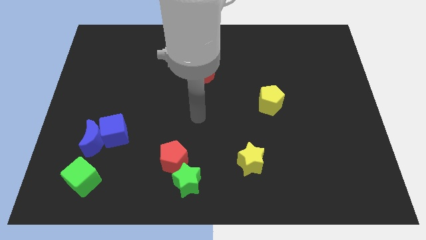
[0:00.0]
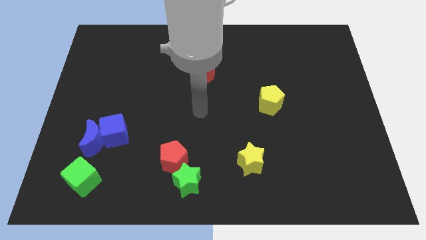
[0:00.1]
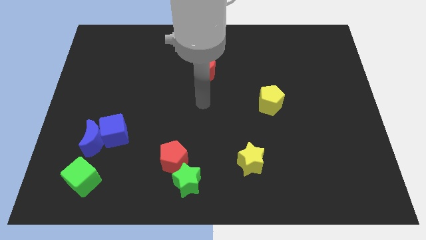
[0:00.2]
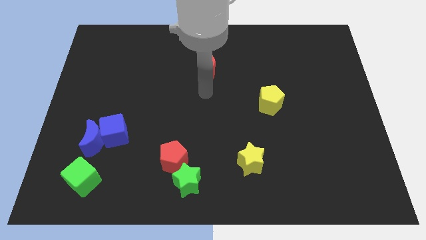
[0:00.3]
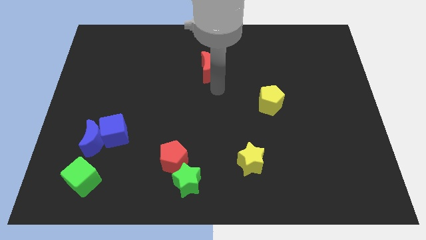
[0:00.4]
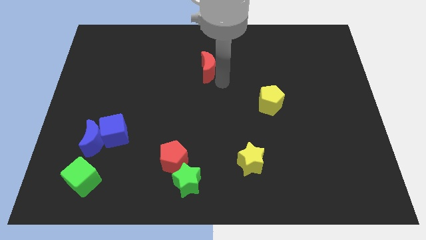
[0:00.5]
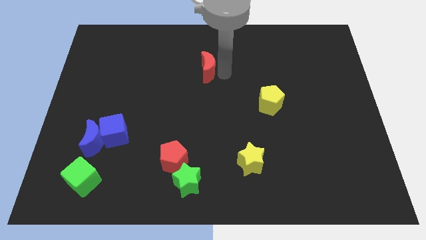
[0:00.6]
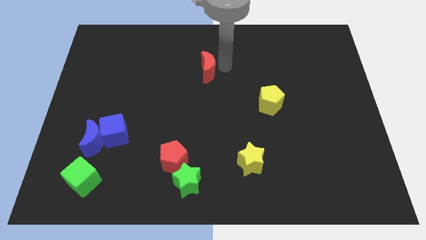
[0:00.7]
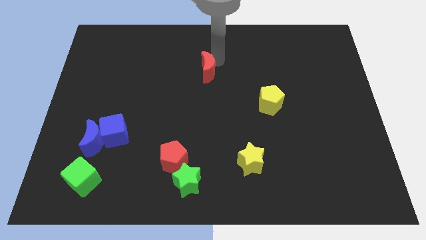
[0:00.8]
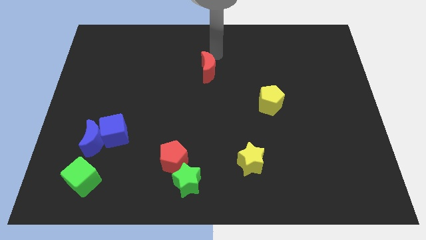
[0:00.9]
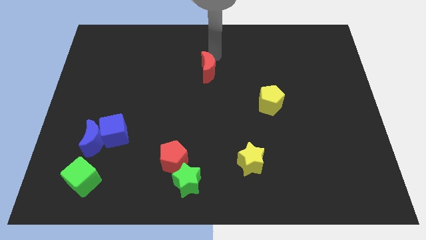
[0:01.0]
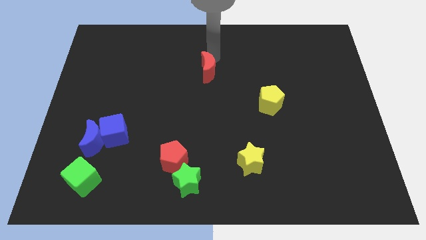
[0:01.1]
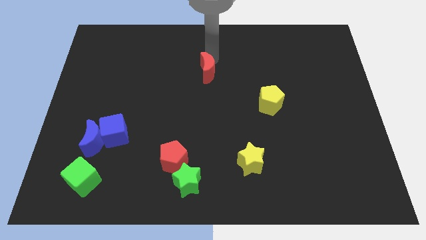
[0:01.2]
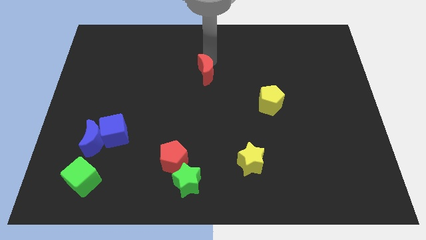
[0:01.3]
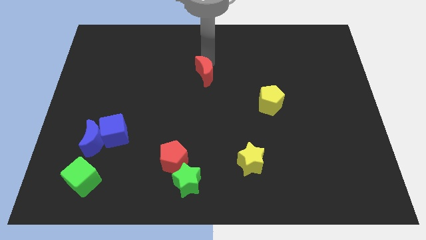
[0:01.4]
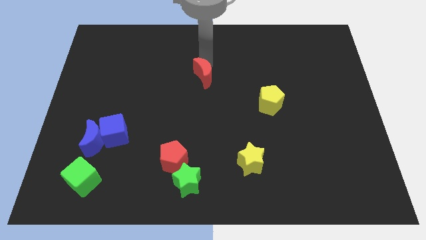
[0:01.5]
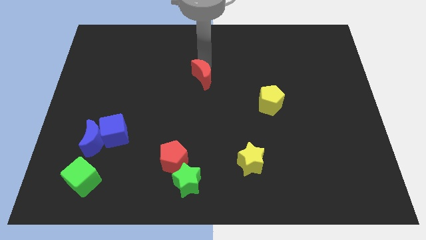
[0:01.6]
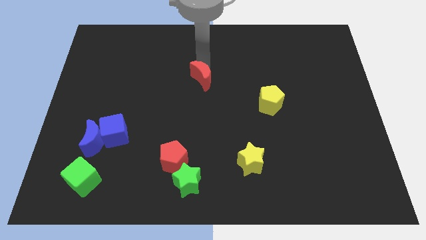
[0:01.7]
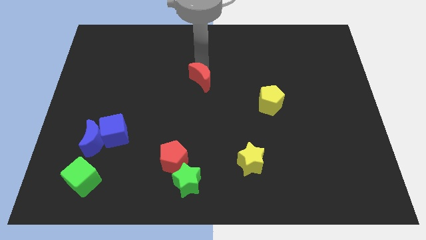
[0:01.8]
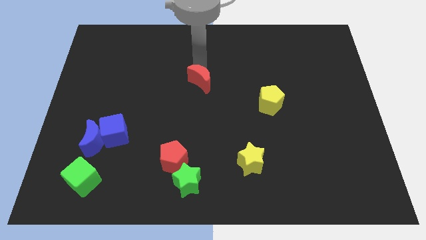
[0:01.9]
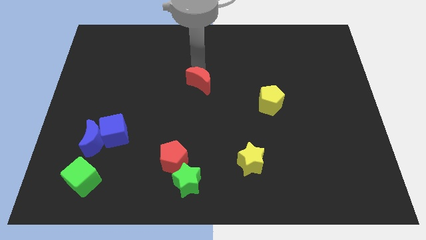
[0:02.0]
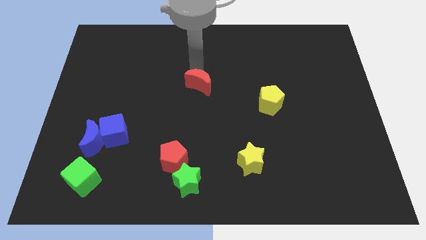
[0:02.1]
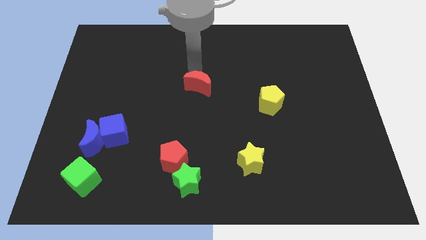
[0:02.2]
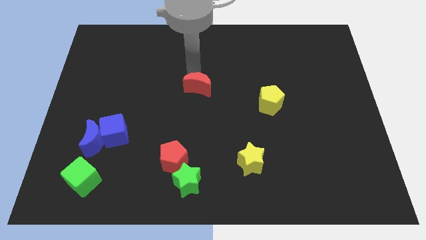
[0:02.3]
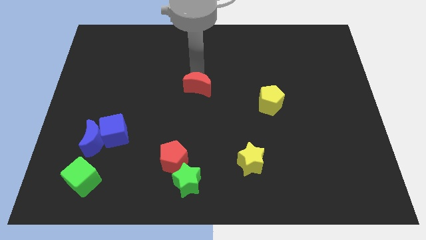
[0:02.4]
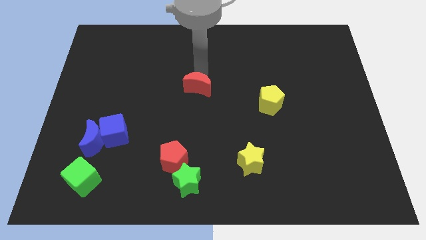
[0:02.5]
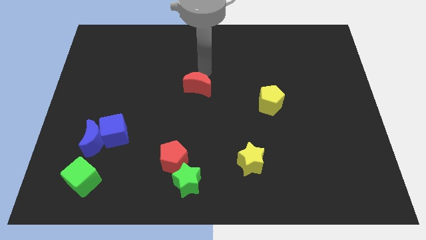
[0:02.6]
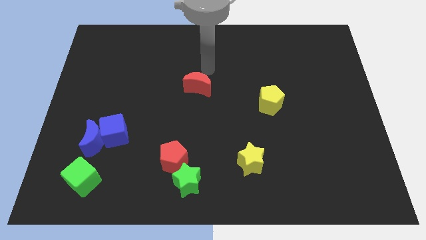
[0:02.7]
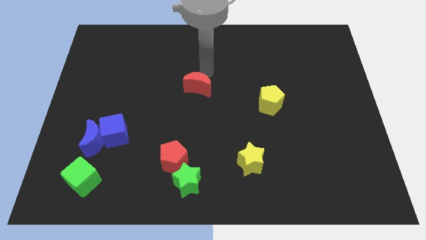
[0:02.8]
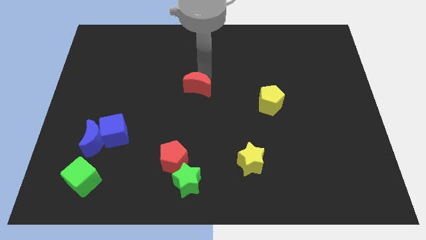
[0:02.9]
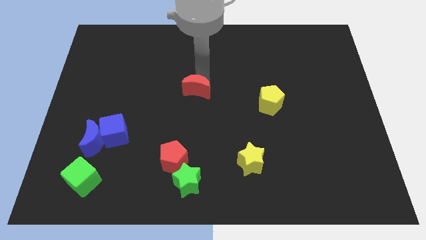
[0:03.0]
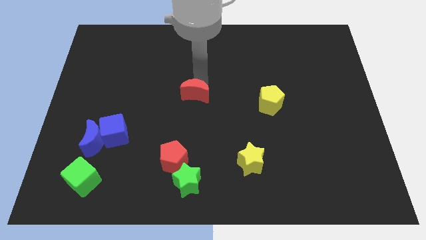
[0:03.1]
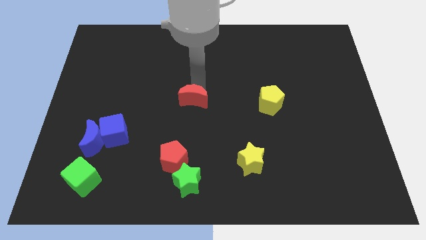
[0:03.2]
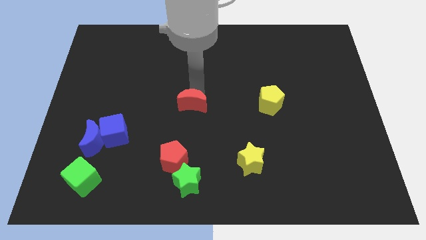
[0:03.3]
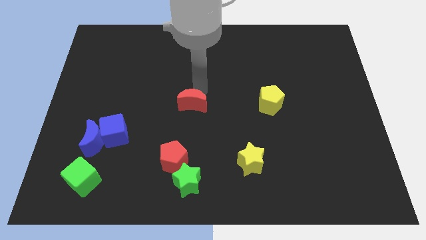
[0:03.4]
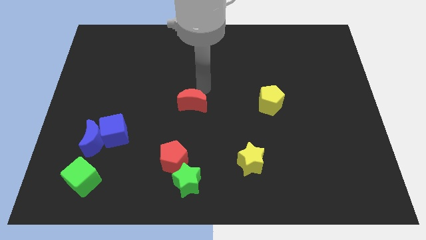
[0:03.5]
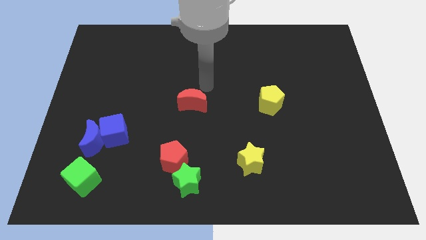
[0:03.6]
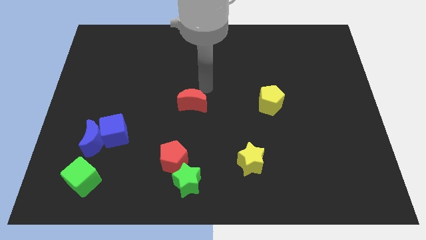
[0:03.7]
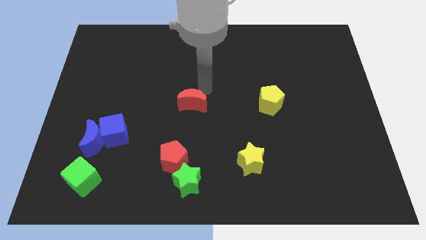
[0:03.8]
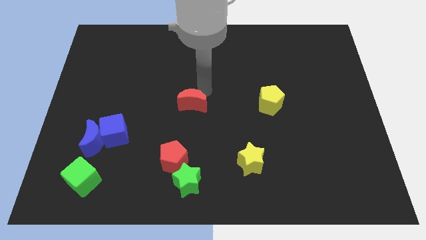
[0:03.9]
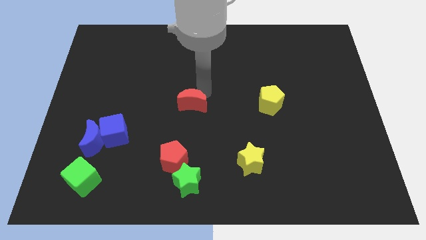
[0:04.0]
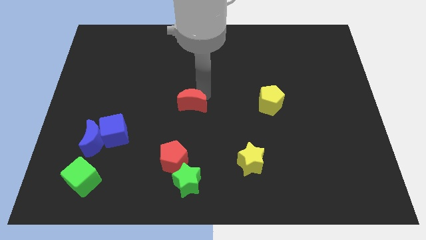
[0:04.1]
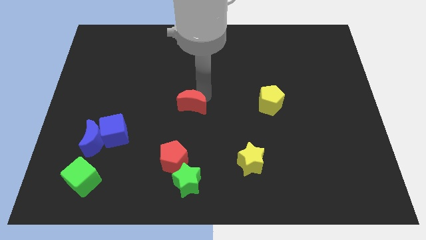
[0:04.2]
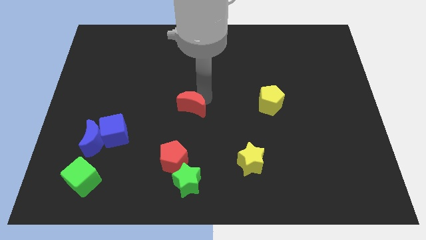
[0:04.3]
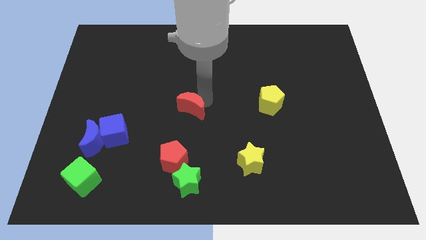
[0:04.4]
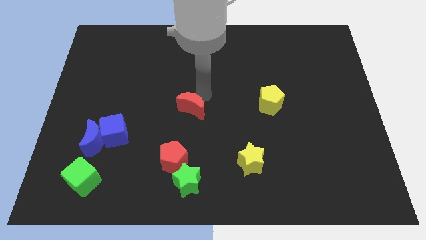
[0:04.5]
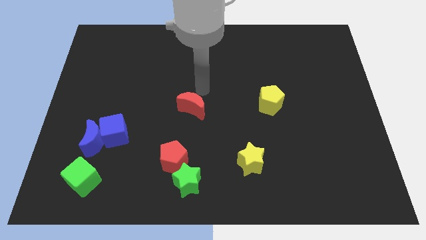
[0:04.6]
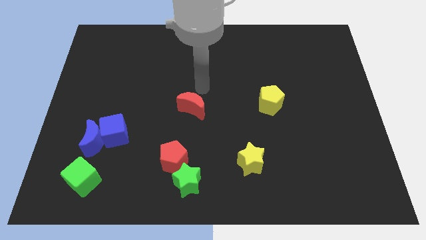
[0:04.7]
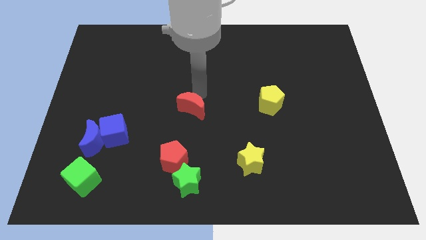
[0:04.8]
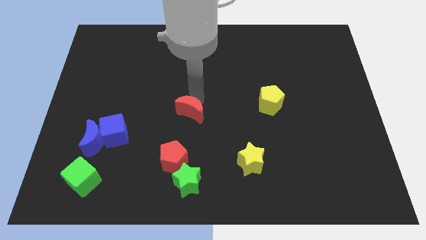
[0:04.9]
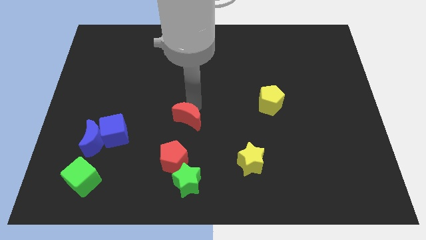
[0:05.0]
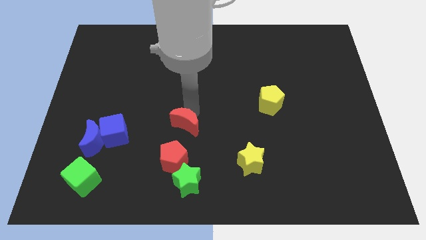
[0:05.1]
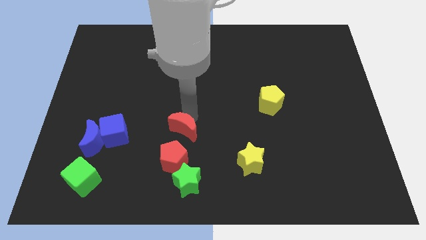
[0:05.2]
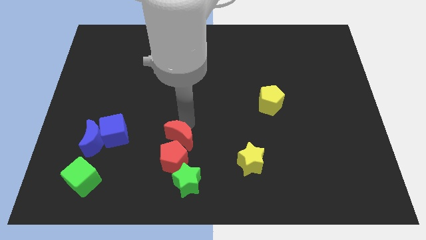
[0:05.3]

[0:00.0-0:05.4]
push the red moon to the red pentagon

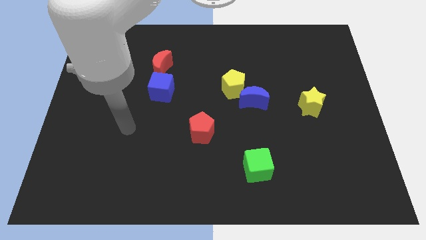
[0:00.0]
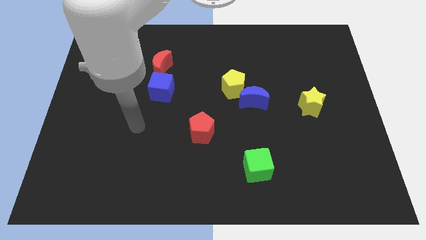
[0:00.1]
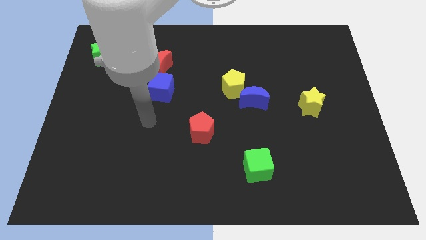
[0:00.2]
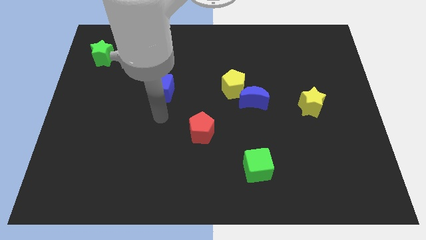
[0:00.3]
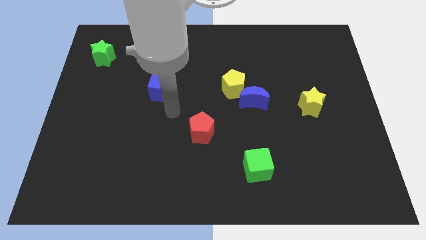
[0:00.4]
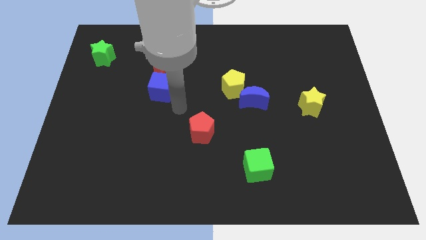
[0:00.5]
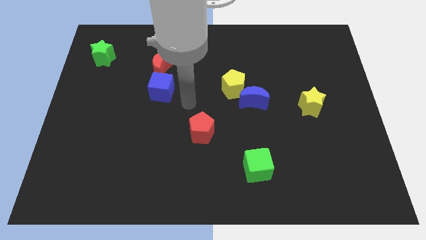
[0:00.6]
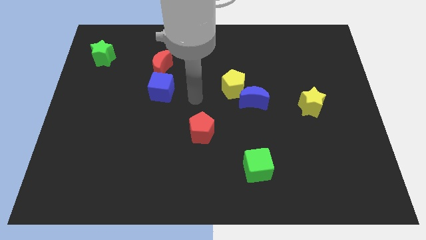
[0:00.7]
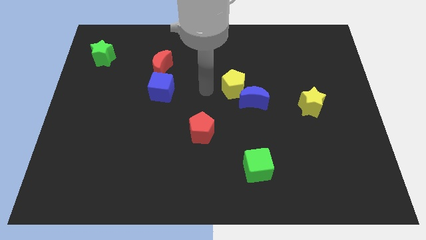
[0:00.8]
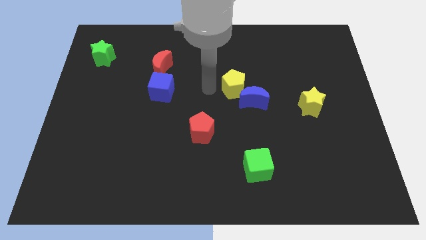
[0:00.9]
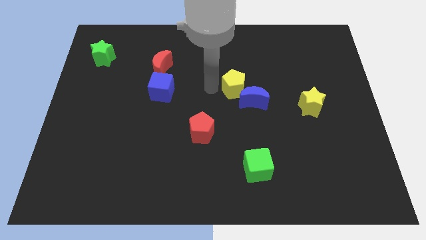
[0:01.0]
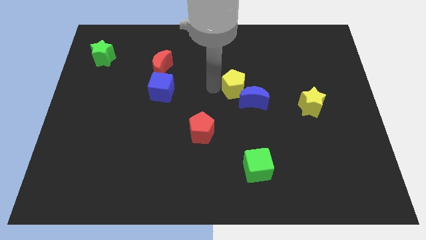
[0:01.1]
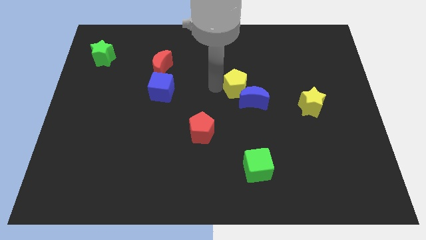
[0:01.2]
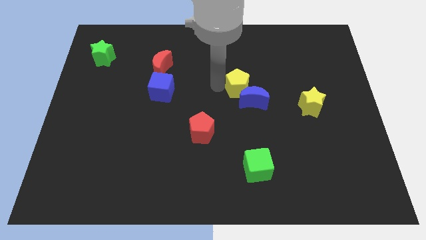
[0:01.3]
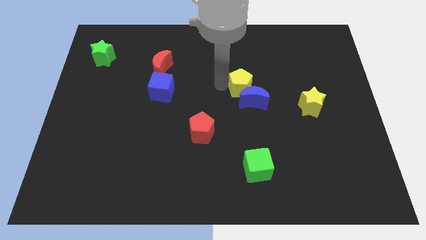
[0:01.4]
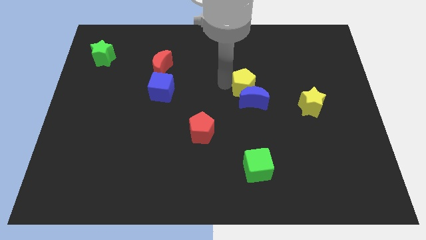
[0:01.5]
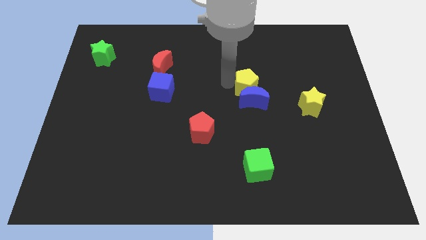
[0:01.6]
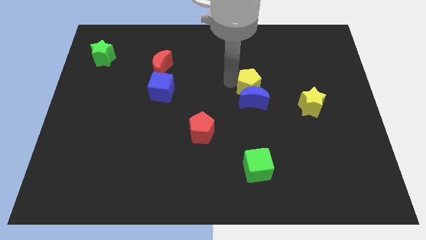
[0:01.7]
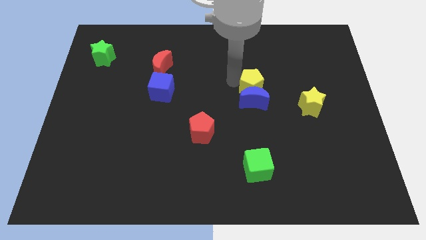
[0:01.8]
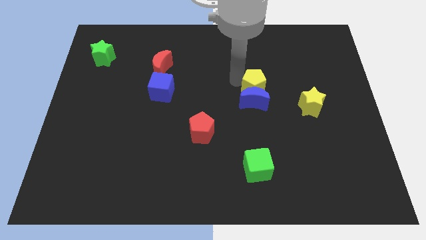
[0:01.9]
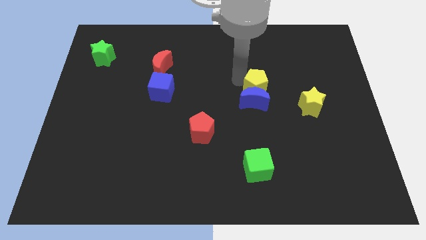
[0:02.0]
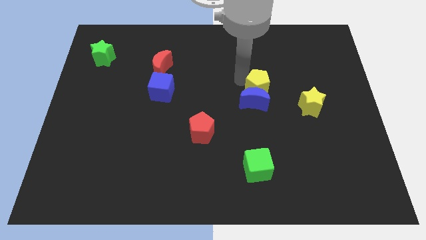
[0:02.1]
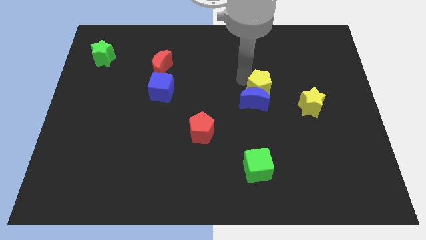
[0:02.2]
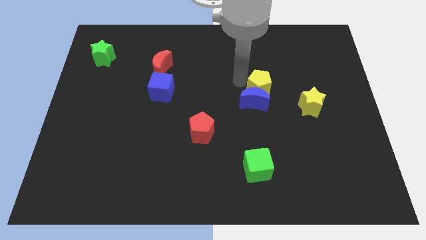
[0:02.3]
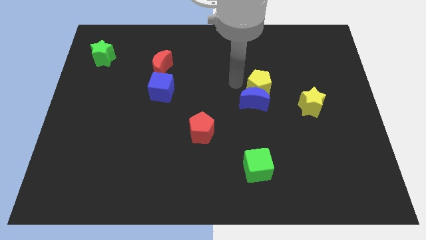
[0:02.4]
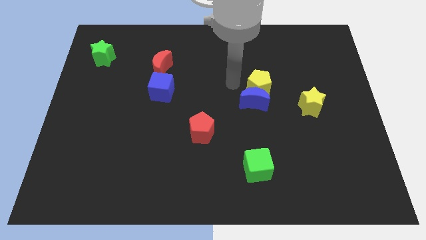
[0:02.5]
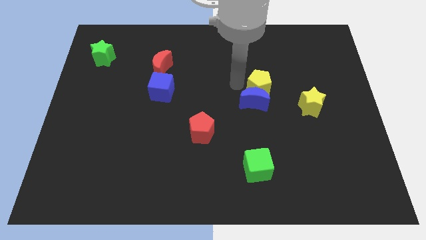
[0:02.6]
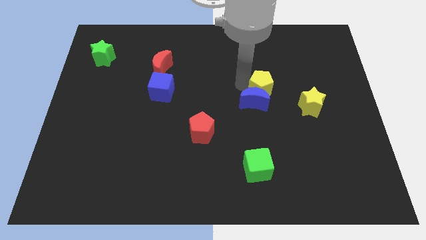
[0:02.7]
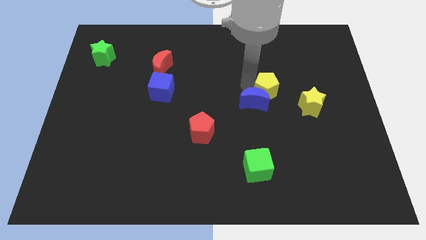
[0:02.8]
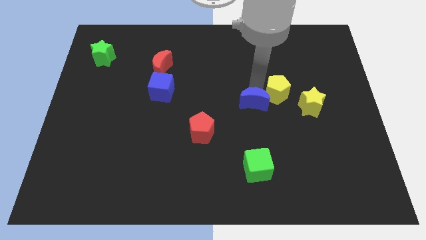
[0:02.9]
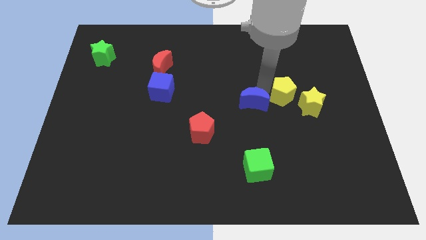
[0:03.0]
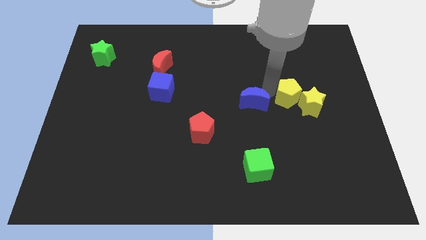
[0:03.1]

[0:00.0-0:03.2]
slide the yellow pentagon close to the yellow star
